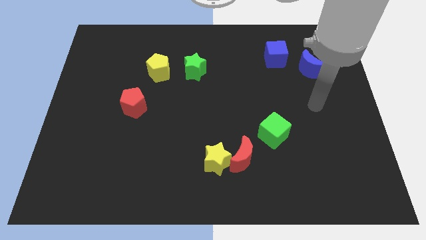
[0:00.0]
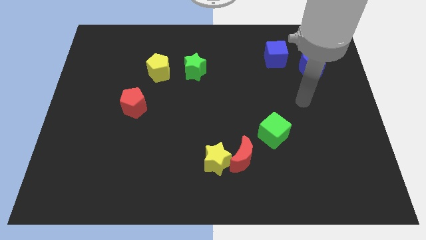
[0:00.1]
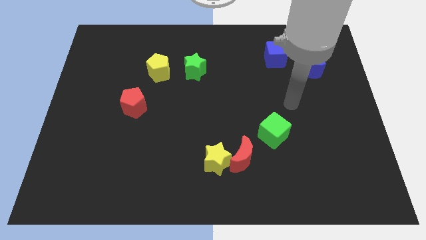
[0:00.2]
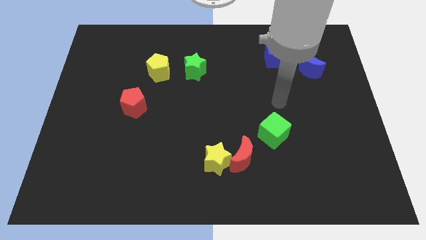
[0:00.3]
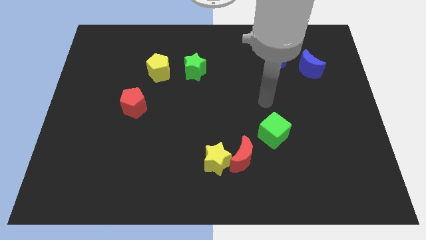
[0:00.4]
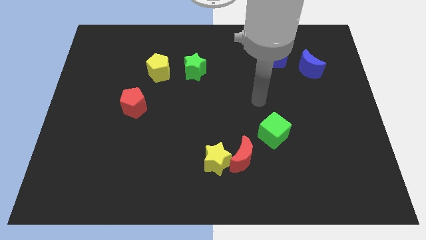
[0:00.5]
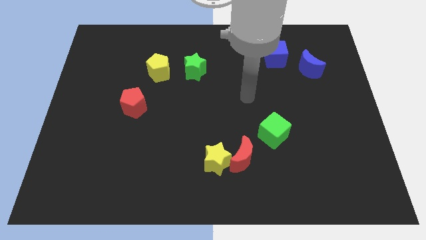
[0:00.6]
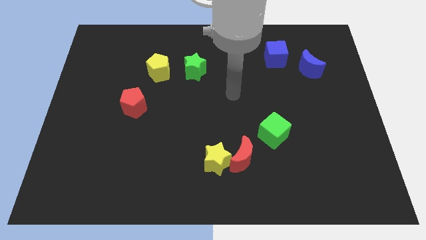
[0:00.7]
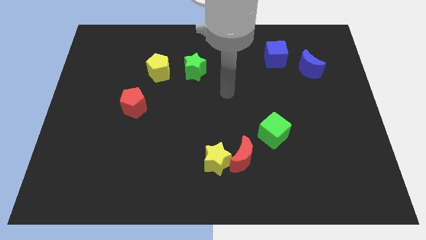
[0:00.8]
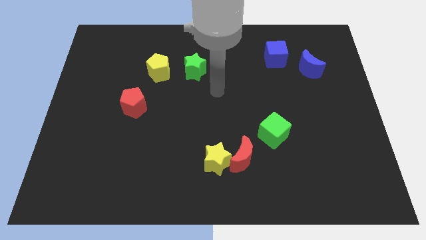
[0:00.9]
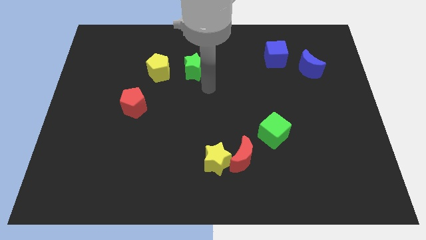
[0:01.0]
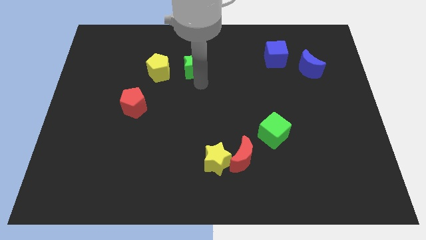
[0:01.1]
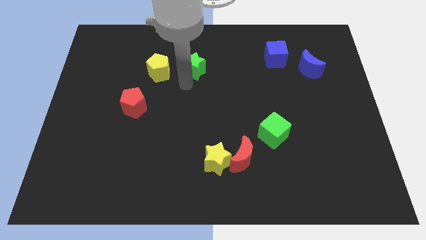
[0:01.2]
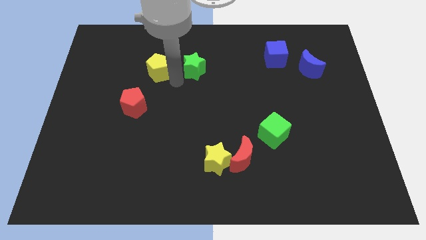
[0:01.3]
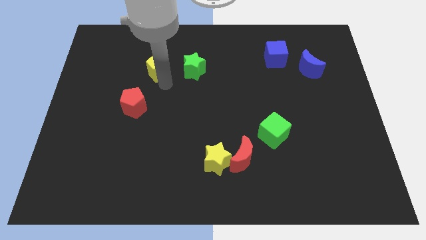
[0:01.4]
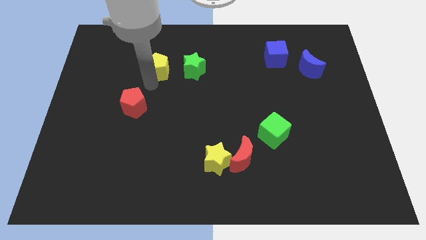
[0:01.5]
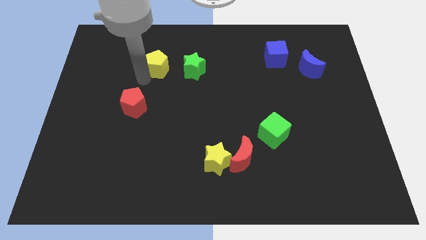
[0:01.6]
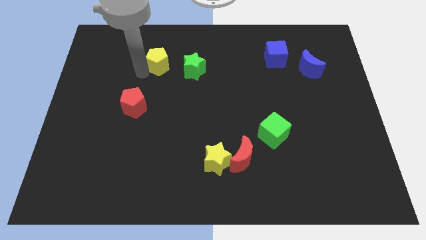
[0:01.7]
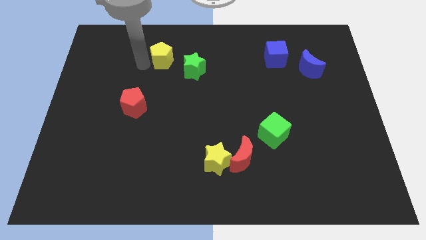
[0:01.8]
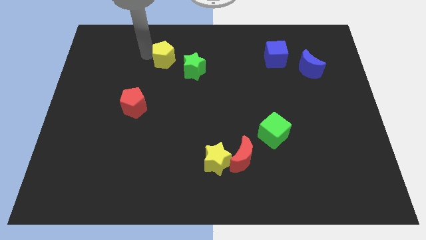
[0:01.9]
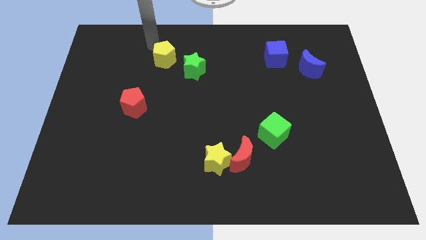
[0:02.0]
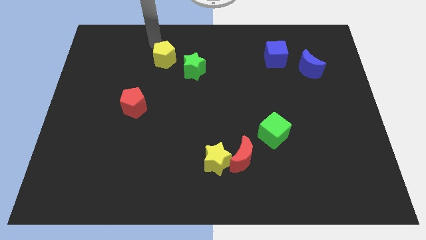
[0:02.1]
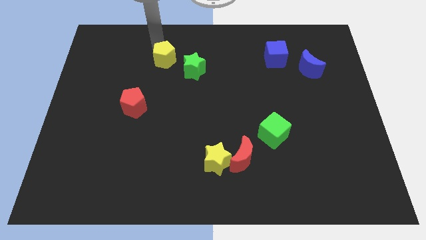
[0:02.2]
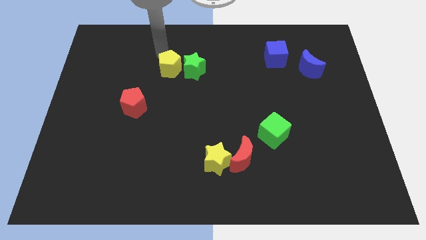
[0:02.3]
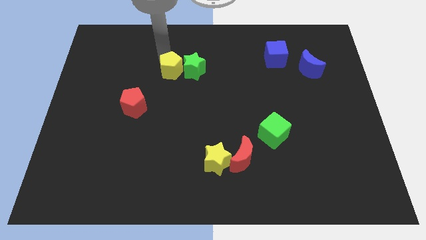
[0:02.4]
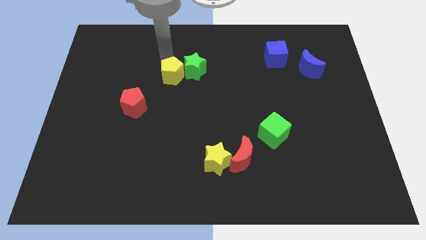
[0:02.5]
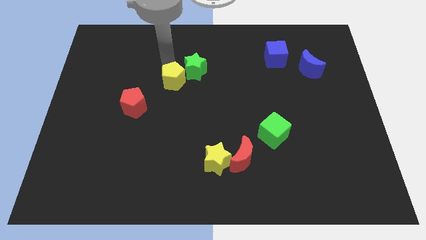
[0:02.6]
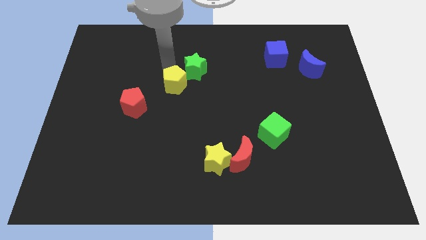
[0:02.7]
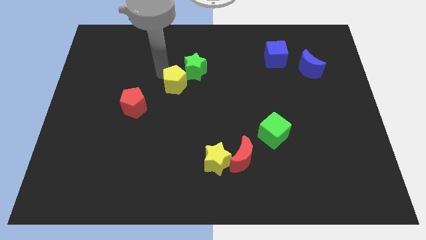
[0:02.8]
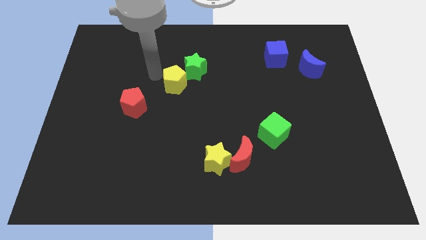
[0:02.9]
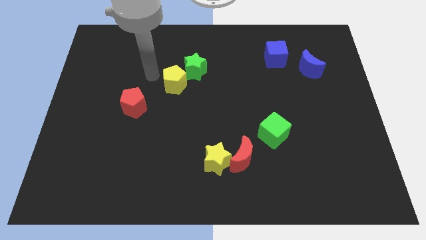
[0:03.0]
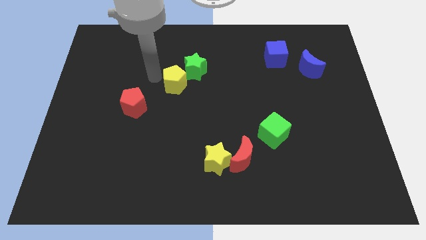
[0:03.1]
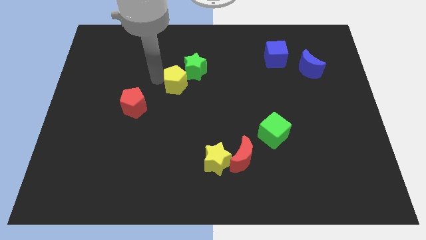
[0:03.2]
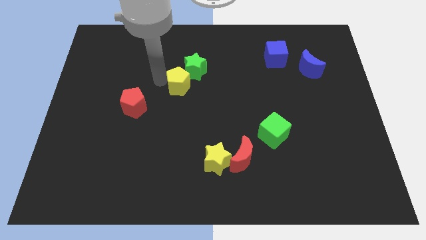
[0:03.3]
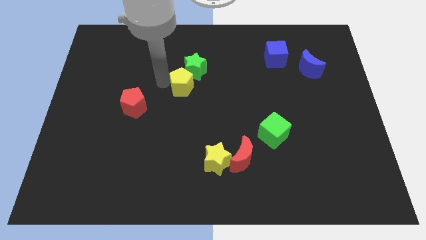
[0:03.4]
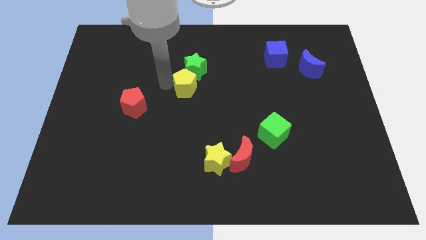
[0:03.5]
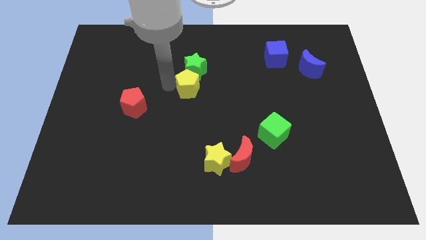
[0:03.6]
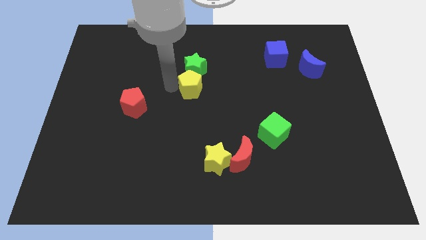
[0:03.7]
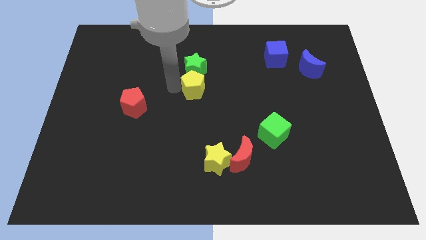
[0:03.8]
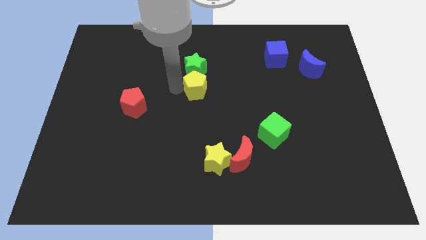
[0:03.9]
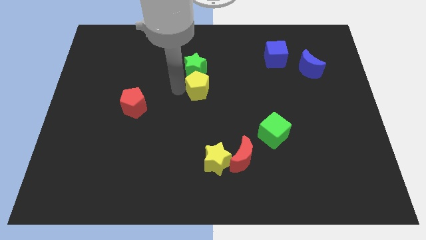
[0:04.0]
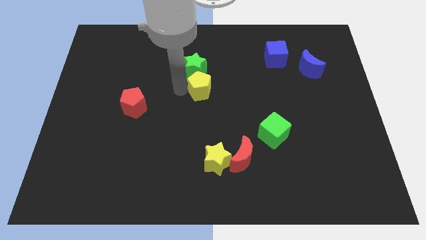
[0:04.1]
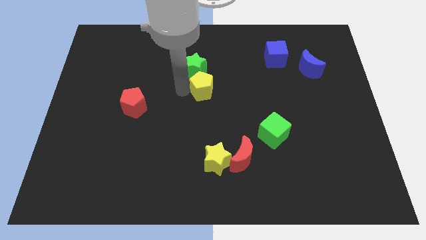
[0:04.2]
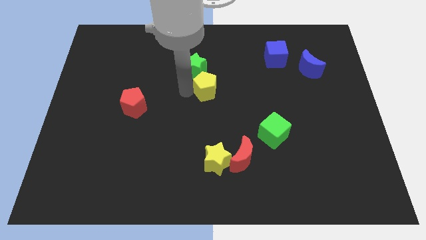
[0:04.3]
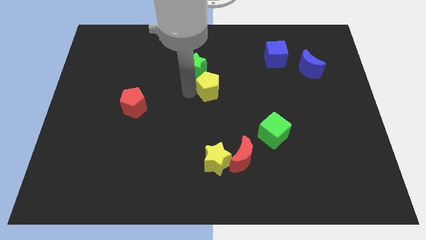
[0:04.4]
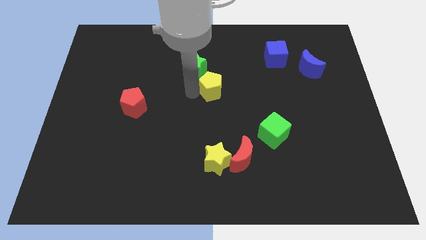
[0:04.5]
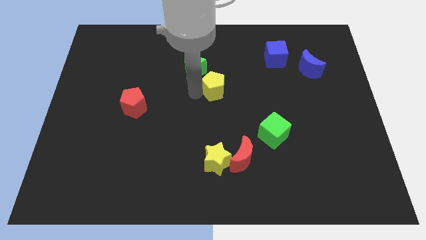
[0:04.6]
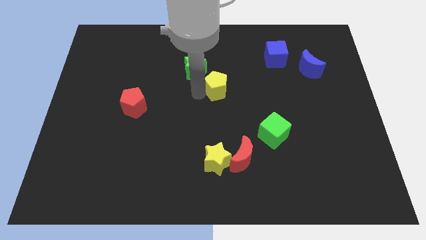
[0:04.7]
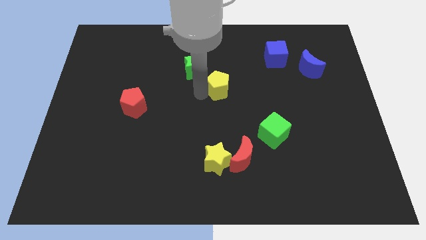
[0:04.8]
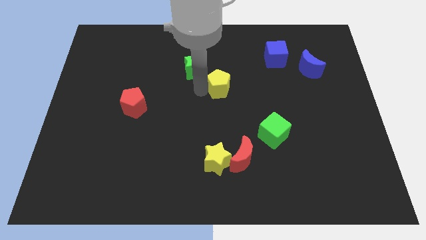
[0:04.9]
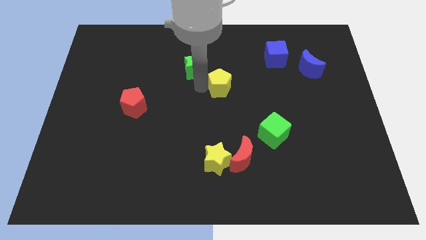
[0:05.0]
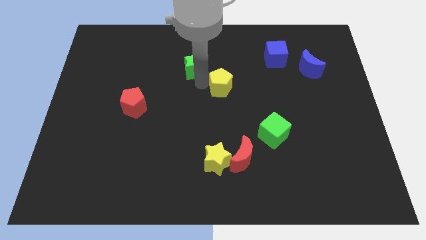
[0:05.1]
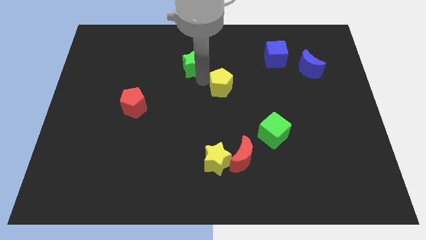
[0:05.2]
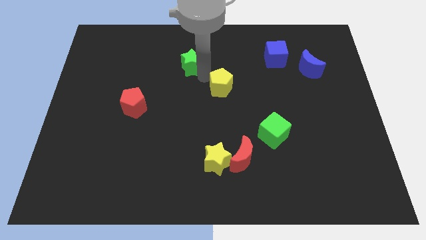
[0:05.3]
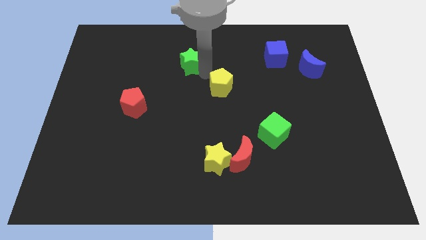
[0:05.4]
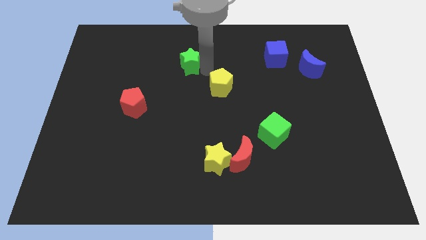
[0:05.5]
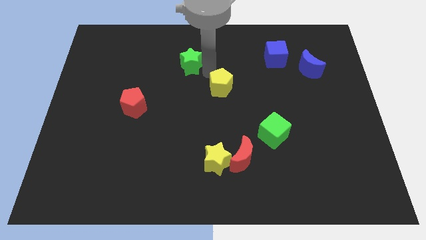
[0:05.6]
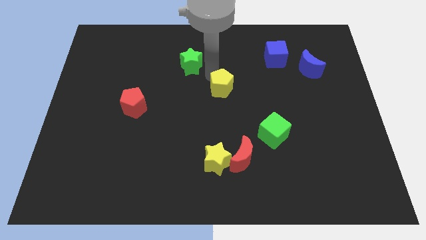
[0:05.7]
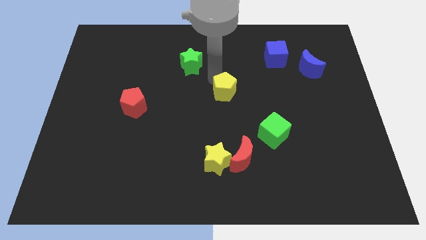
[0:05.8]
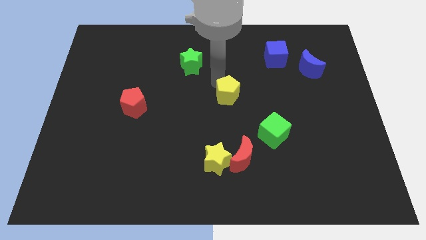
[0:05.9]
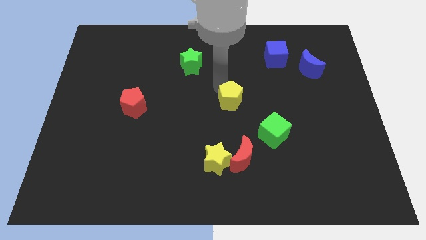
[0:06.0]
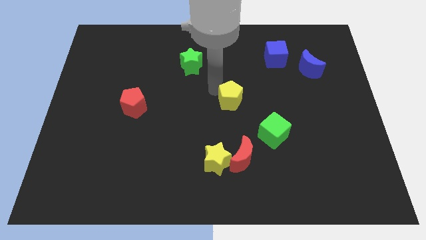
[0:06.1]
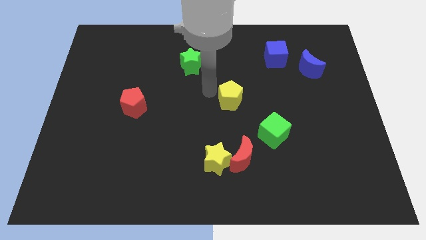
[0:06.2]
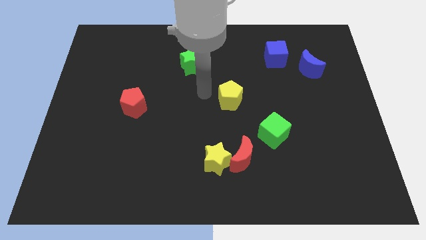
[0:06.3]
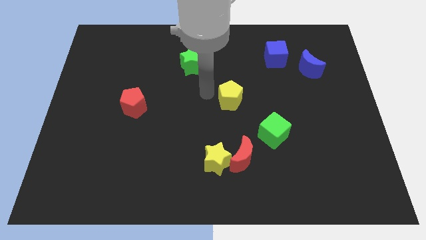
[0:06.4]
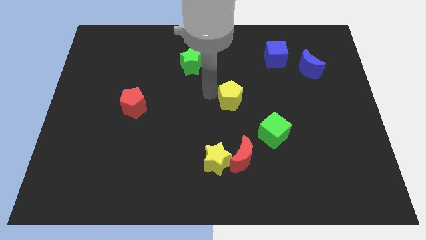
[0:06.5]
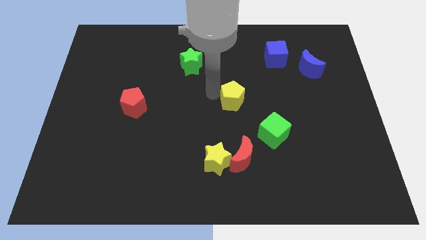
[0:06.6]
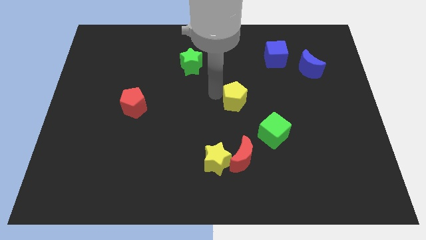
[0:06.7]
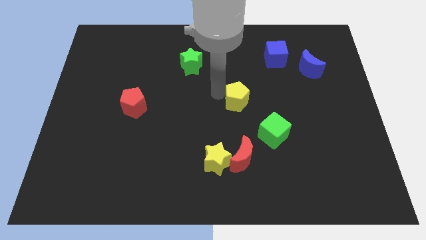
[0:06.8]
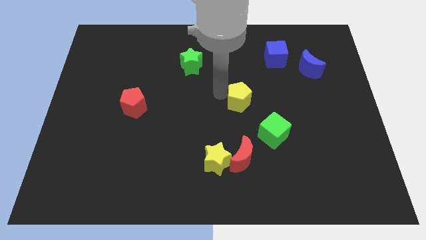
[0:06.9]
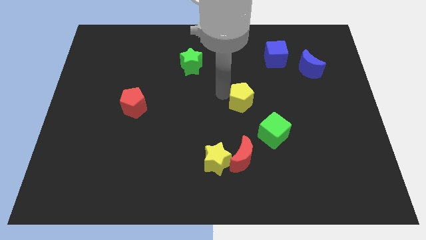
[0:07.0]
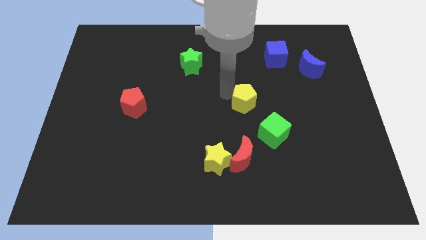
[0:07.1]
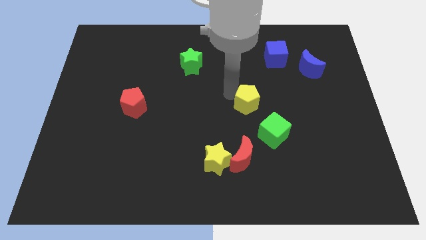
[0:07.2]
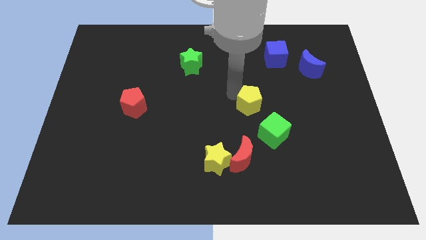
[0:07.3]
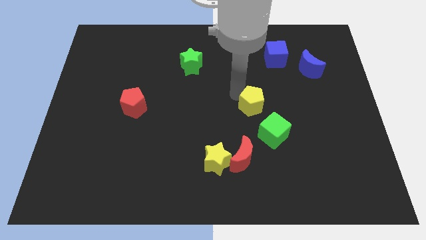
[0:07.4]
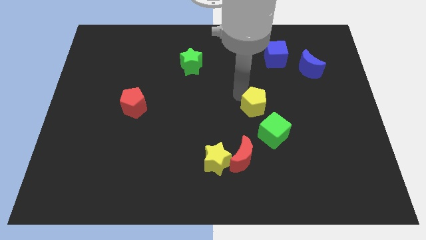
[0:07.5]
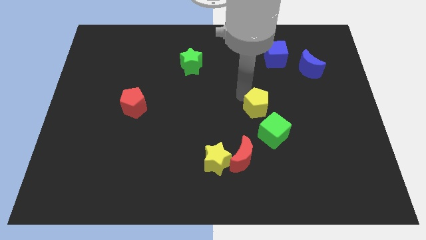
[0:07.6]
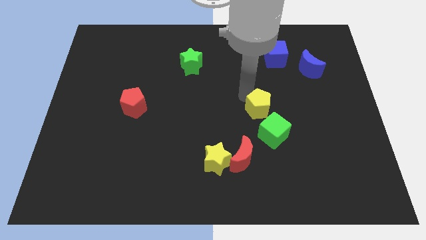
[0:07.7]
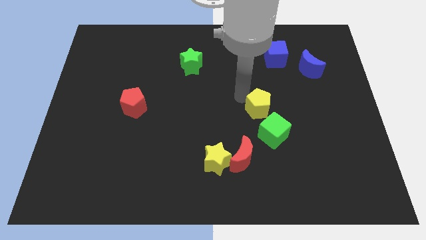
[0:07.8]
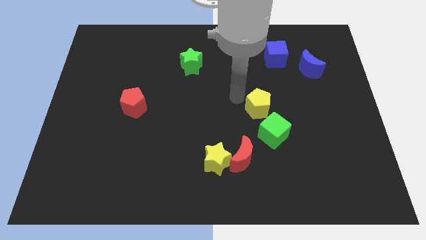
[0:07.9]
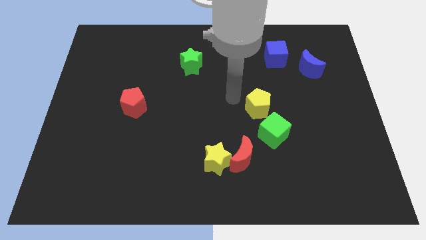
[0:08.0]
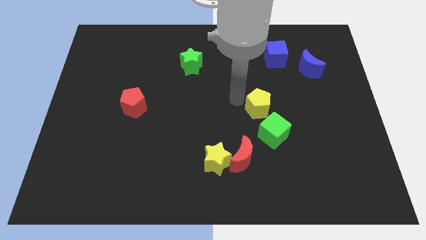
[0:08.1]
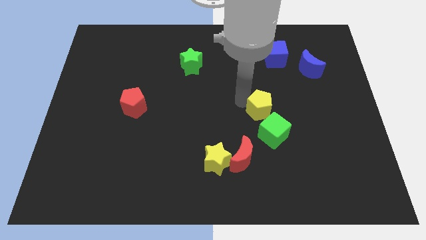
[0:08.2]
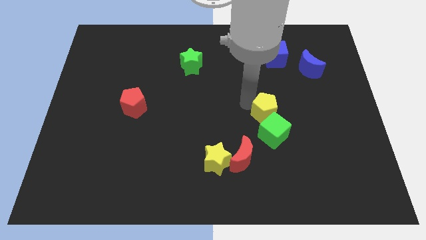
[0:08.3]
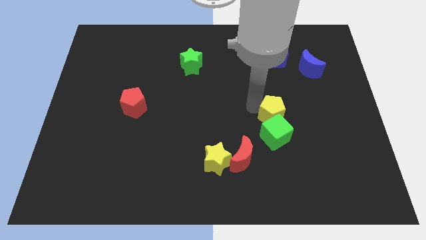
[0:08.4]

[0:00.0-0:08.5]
slide the yellow pentagon to the top right side of the green cube
